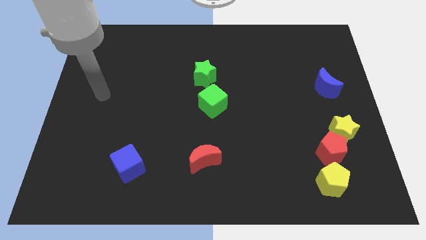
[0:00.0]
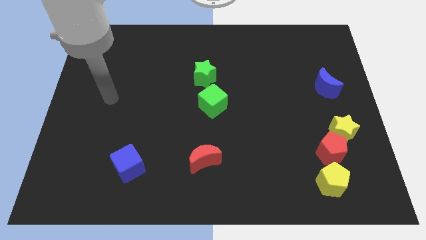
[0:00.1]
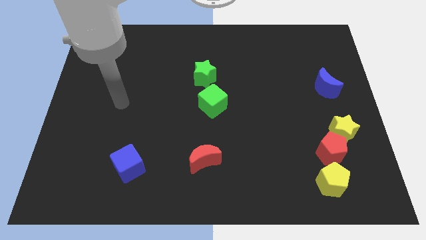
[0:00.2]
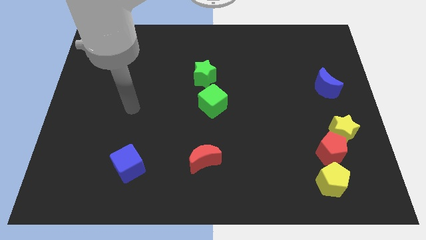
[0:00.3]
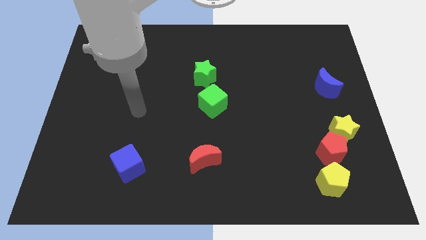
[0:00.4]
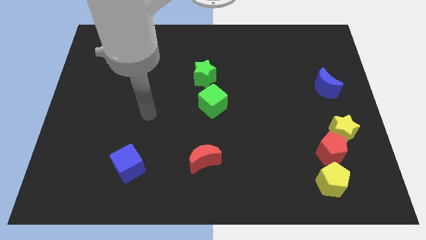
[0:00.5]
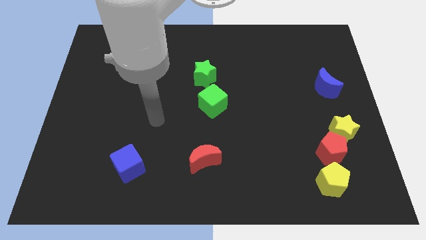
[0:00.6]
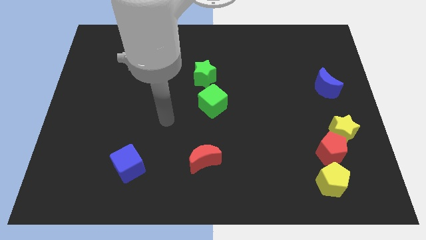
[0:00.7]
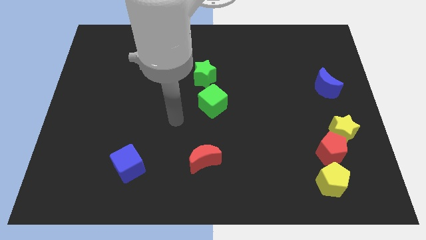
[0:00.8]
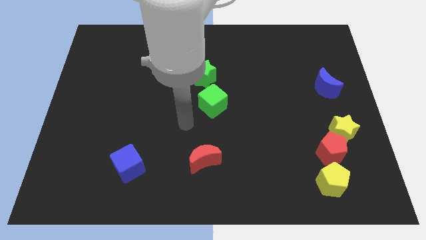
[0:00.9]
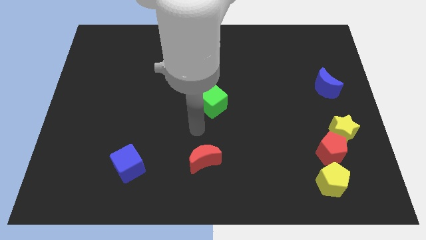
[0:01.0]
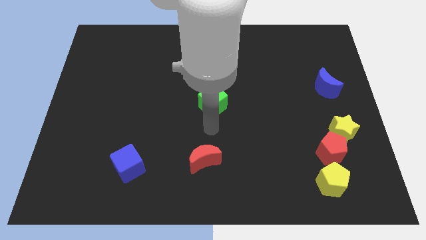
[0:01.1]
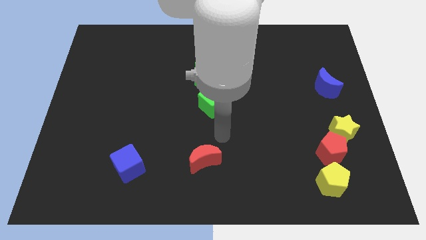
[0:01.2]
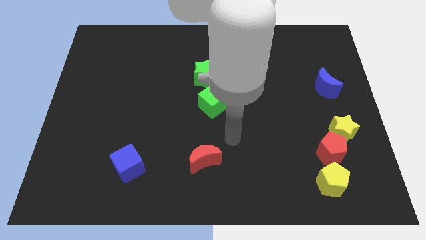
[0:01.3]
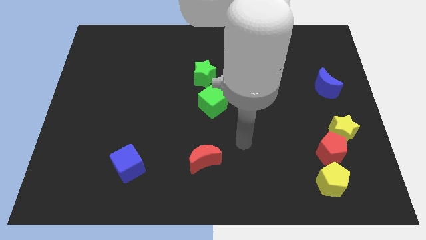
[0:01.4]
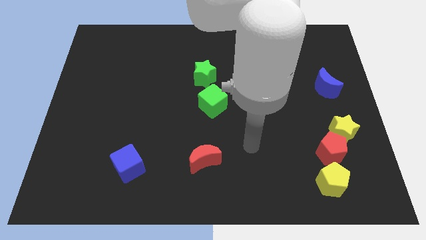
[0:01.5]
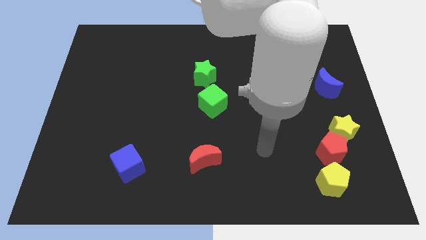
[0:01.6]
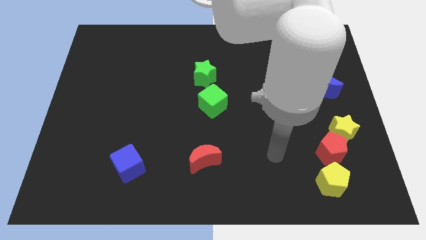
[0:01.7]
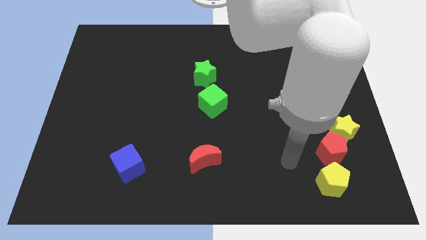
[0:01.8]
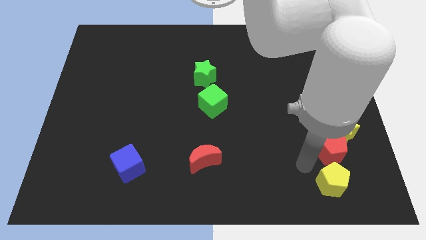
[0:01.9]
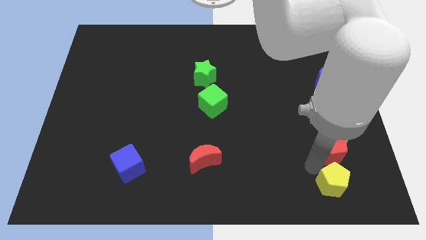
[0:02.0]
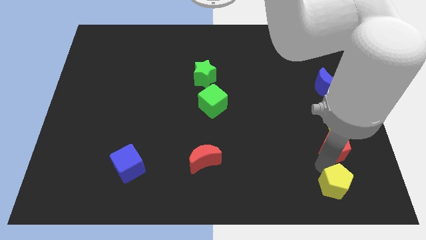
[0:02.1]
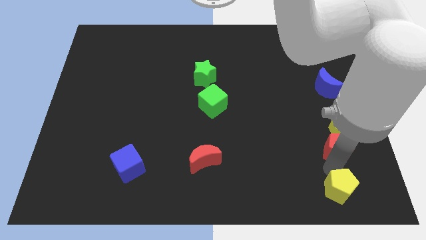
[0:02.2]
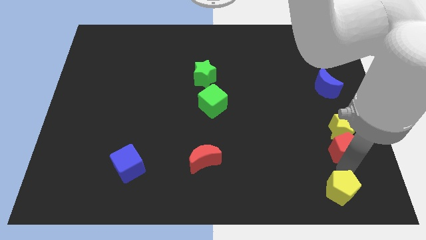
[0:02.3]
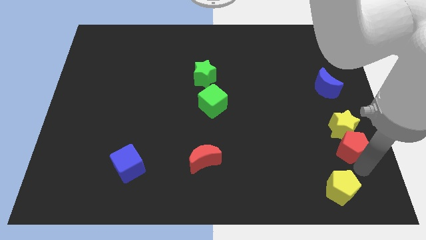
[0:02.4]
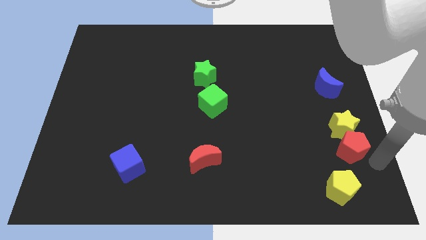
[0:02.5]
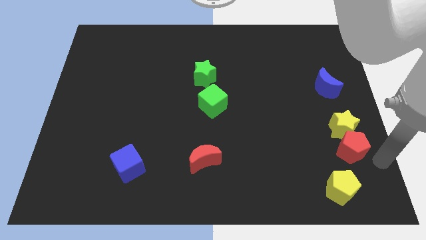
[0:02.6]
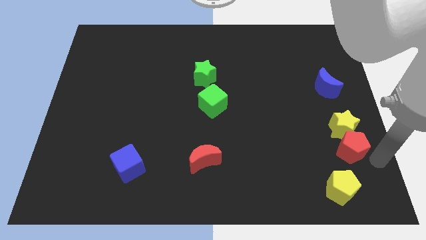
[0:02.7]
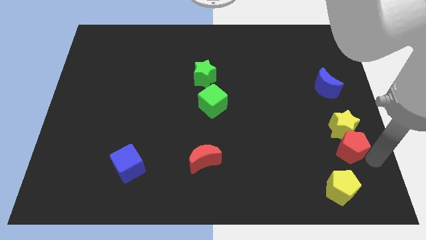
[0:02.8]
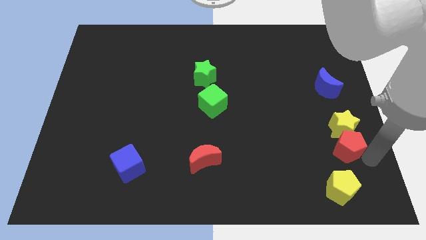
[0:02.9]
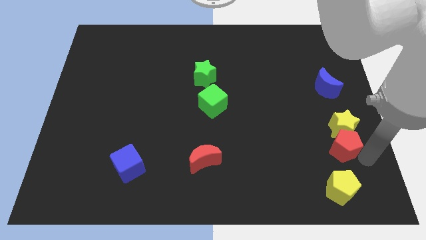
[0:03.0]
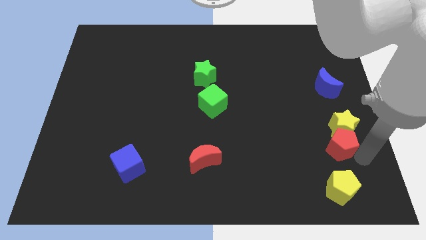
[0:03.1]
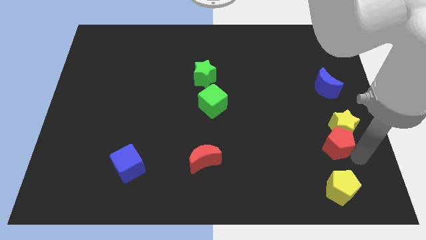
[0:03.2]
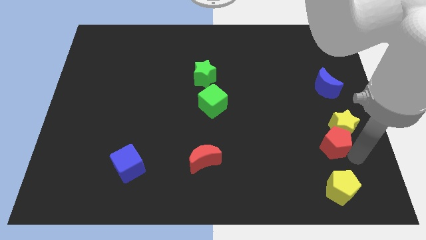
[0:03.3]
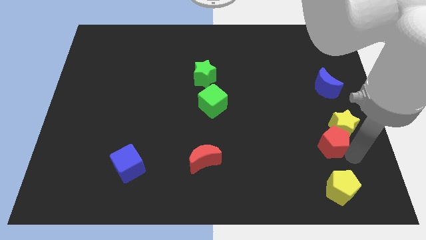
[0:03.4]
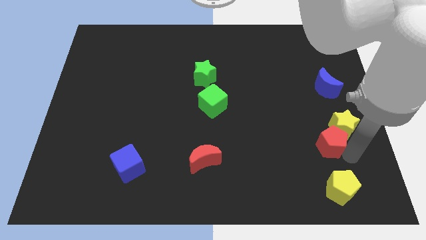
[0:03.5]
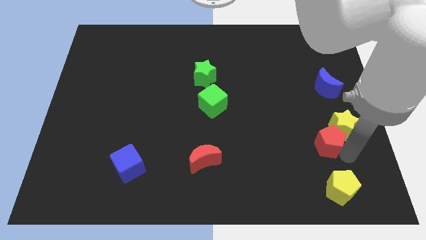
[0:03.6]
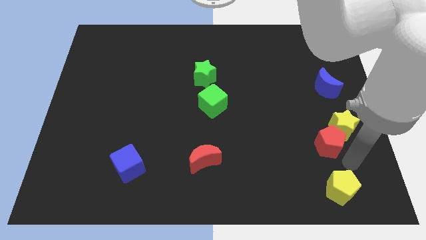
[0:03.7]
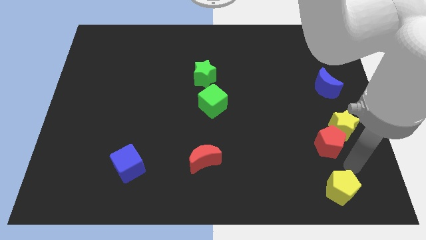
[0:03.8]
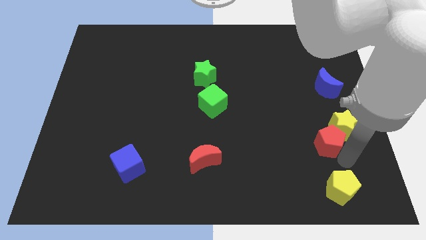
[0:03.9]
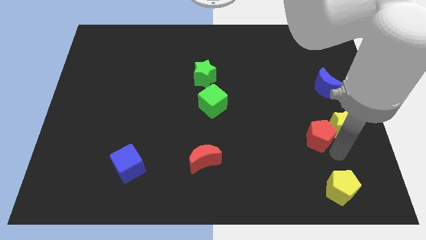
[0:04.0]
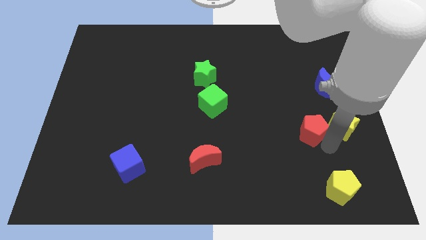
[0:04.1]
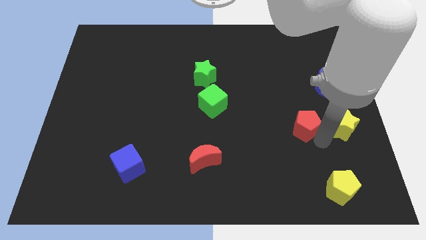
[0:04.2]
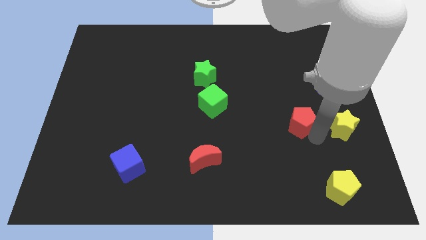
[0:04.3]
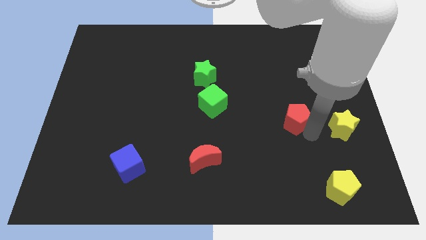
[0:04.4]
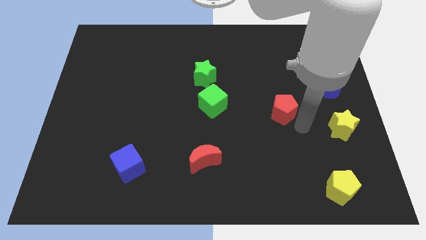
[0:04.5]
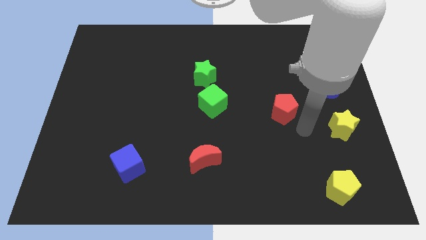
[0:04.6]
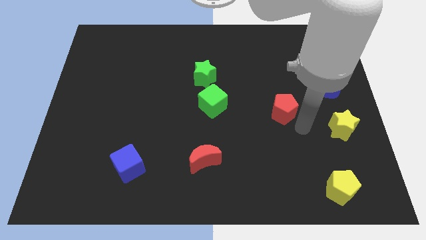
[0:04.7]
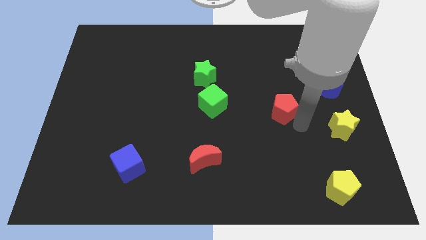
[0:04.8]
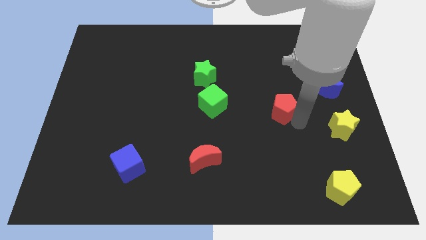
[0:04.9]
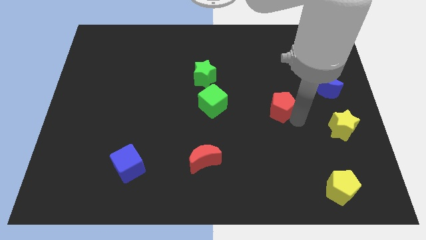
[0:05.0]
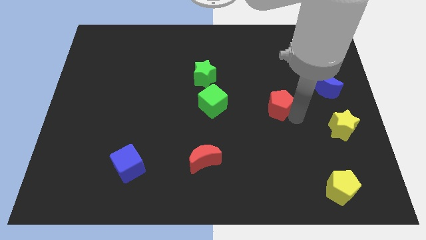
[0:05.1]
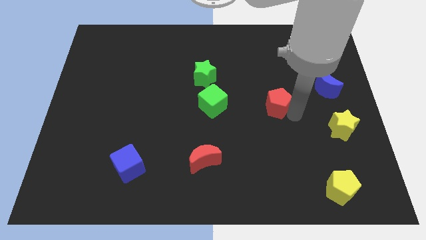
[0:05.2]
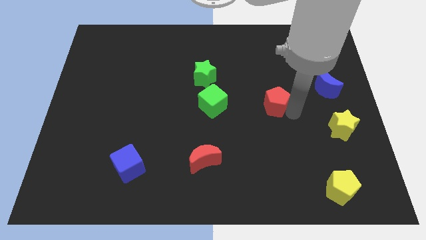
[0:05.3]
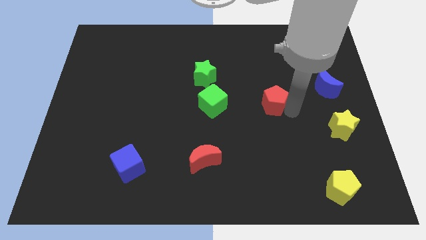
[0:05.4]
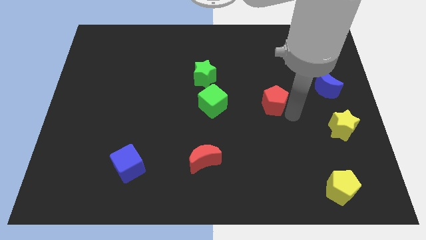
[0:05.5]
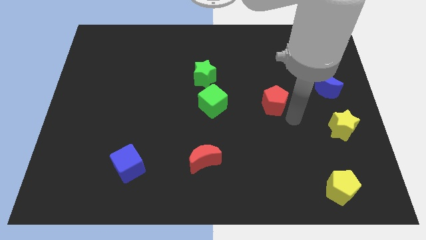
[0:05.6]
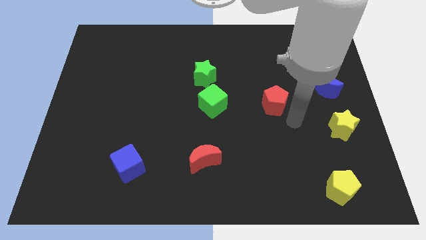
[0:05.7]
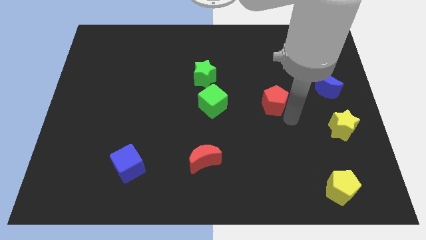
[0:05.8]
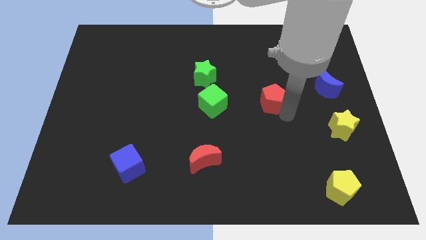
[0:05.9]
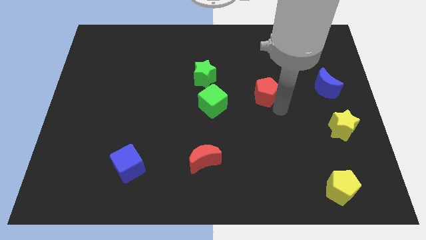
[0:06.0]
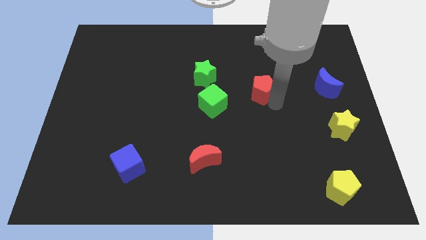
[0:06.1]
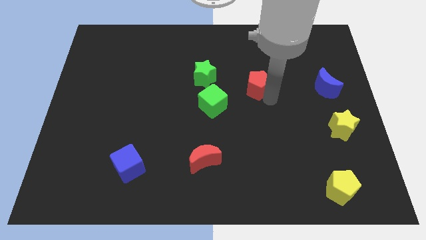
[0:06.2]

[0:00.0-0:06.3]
slide the red pentagon right of the green star

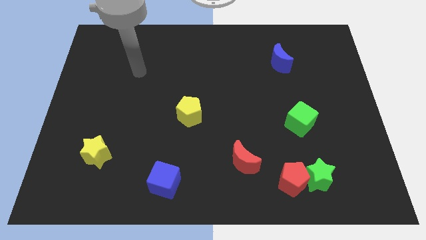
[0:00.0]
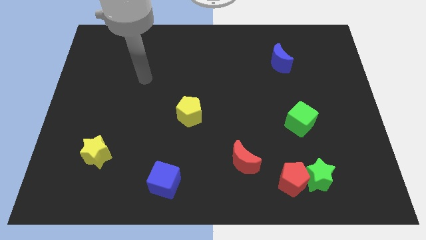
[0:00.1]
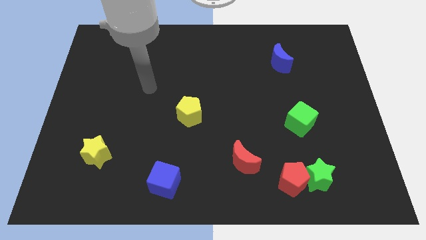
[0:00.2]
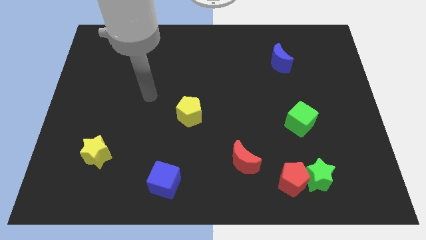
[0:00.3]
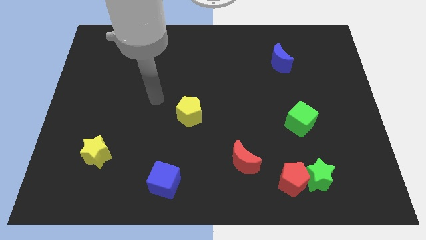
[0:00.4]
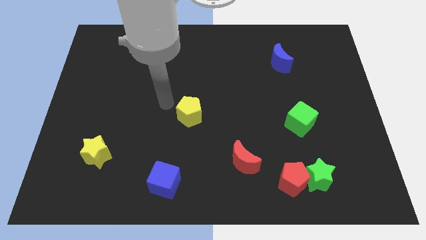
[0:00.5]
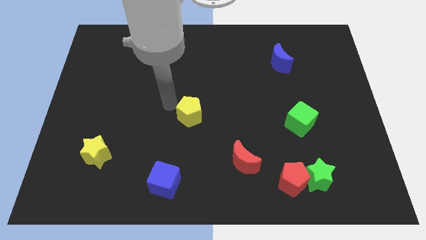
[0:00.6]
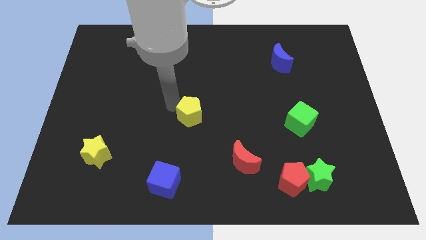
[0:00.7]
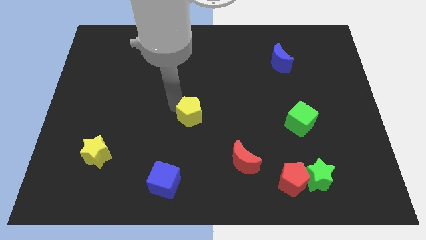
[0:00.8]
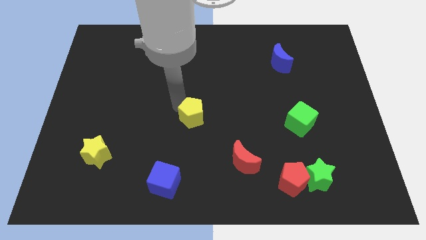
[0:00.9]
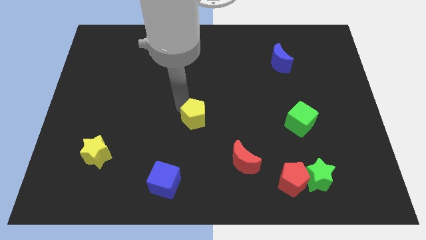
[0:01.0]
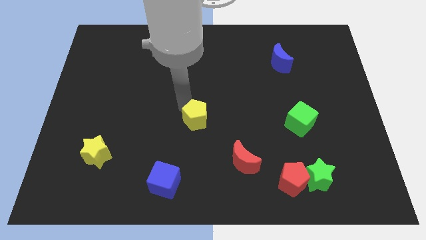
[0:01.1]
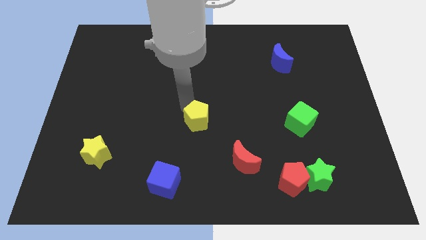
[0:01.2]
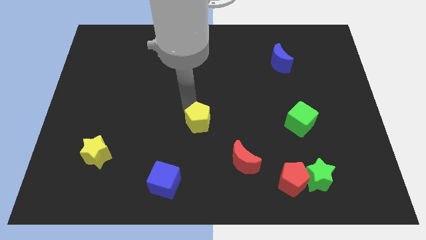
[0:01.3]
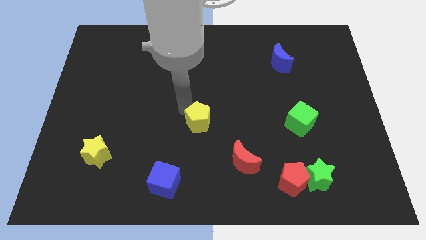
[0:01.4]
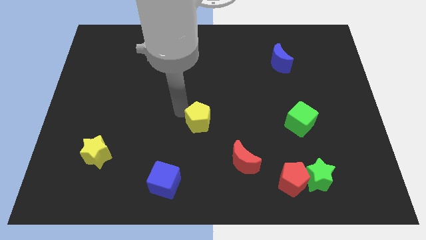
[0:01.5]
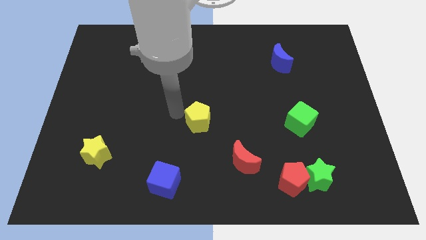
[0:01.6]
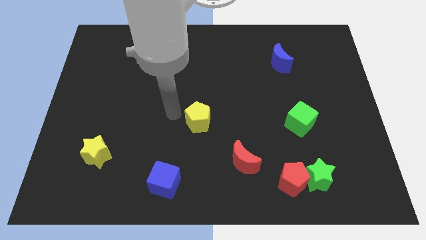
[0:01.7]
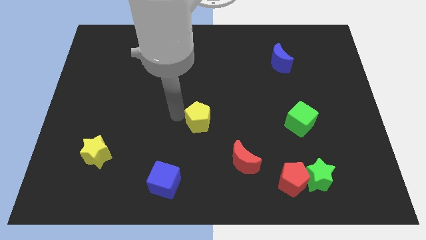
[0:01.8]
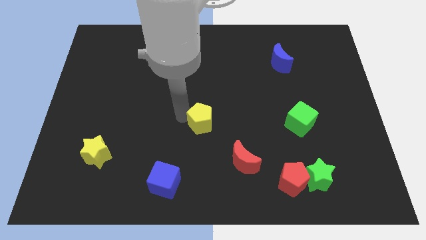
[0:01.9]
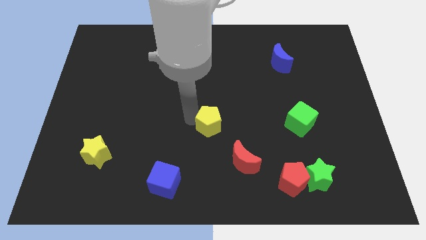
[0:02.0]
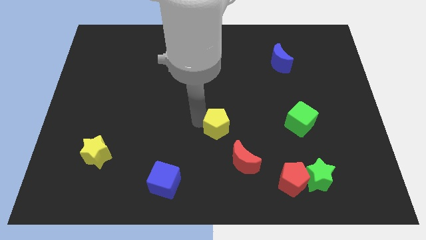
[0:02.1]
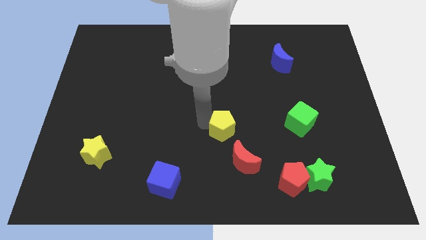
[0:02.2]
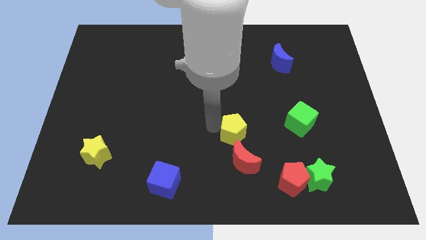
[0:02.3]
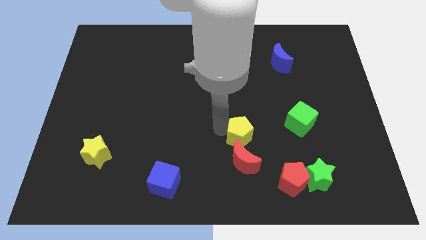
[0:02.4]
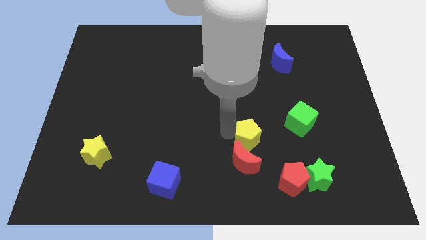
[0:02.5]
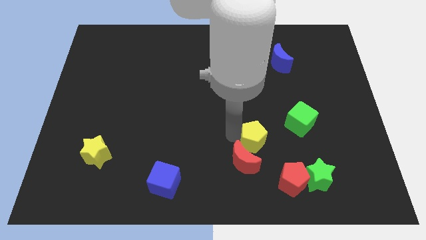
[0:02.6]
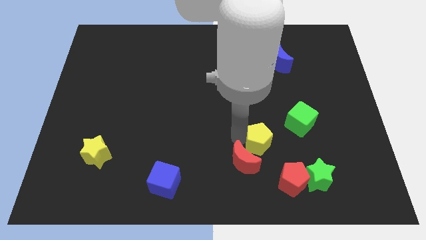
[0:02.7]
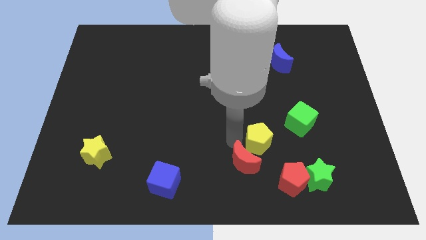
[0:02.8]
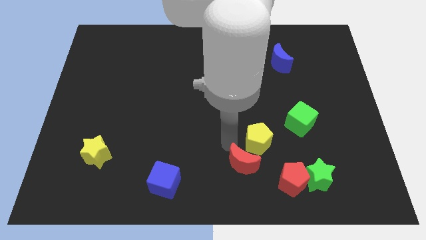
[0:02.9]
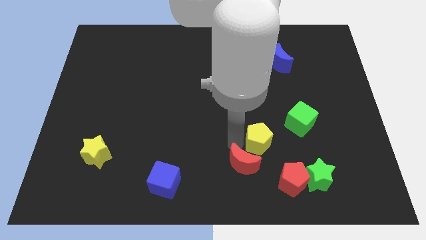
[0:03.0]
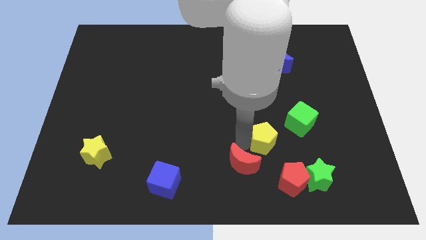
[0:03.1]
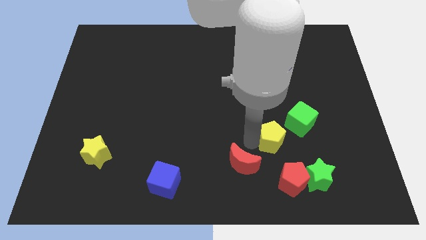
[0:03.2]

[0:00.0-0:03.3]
slide the yellow pentagon to the top side of the red pentagon
